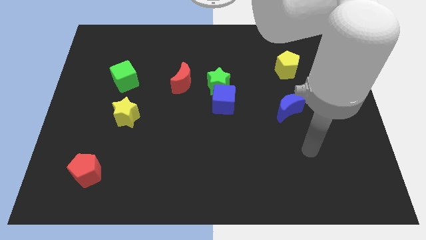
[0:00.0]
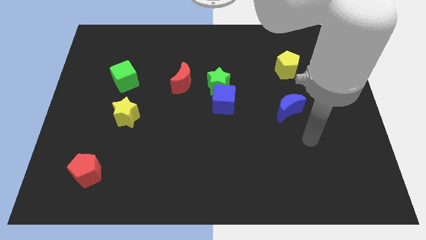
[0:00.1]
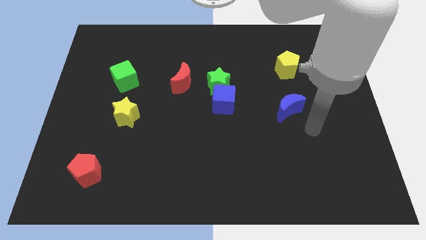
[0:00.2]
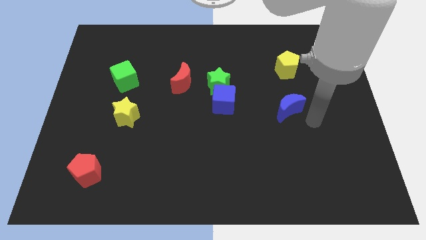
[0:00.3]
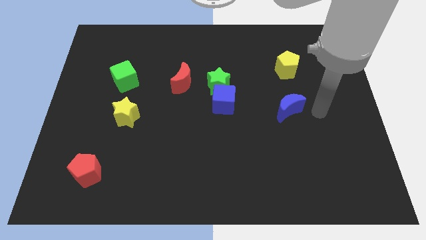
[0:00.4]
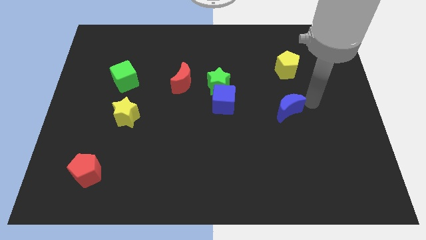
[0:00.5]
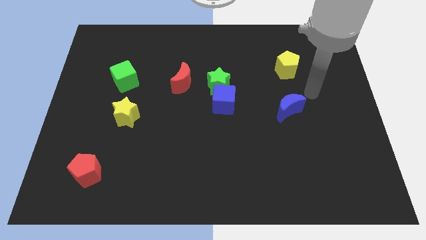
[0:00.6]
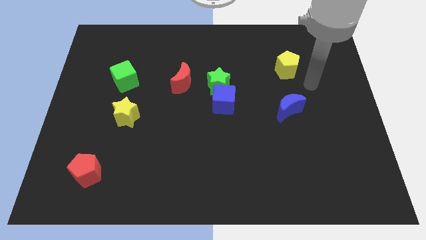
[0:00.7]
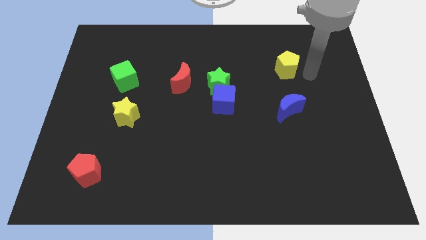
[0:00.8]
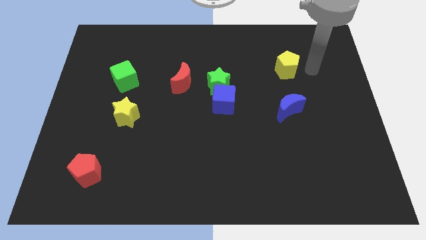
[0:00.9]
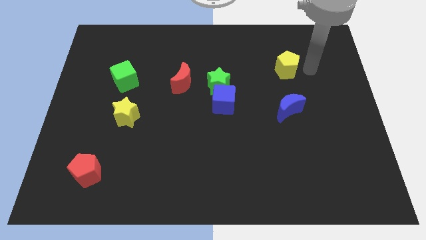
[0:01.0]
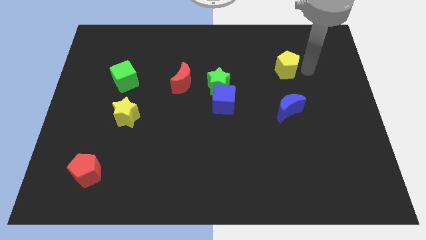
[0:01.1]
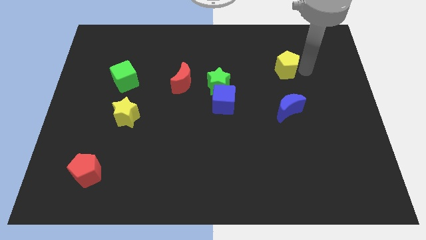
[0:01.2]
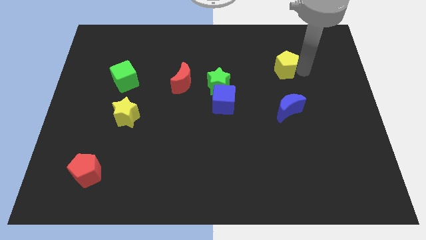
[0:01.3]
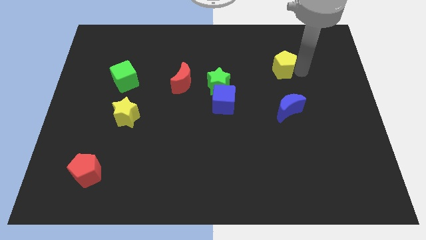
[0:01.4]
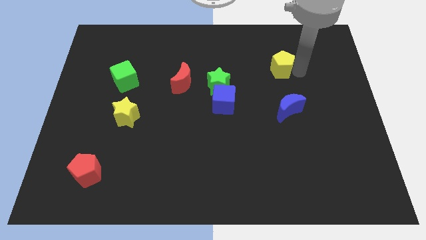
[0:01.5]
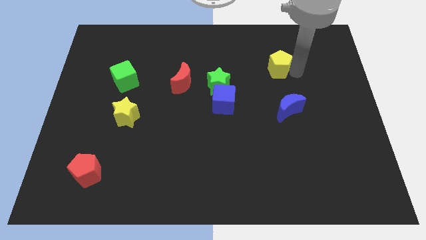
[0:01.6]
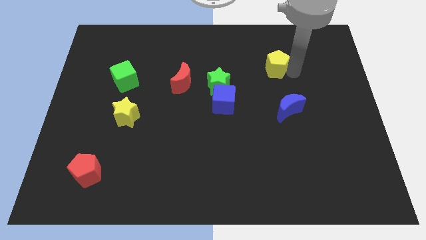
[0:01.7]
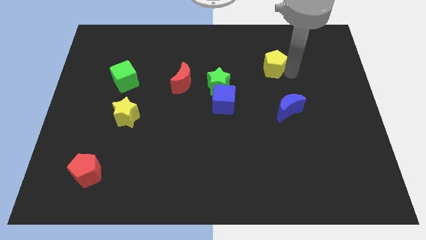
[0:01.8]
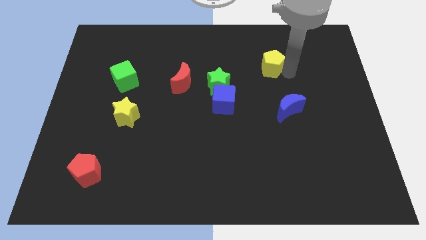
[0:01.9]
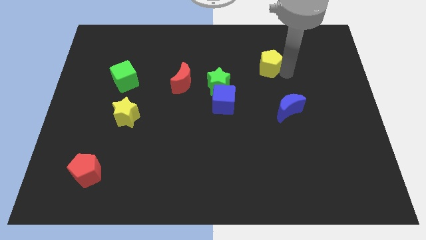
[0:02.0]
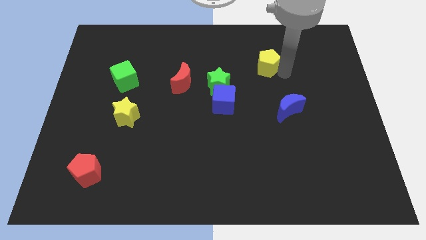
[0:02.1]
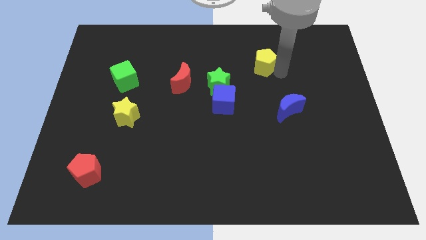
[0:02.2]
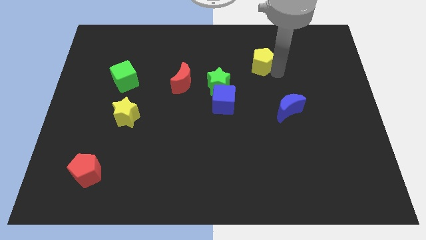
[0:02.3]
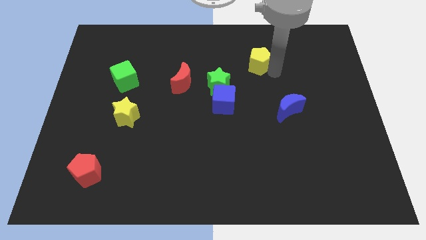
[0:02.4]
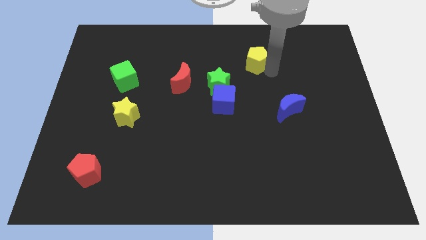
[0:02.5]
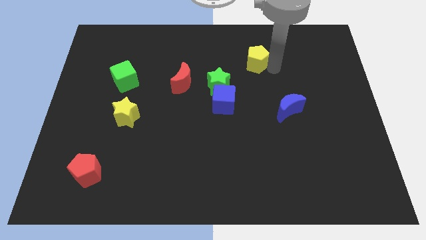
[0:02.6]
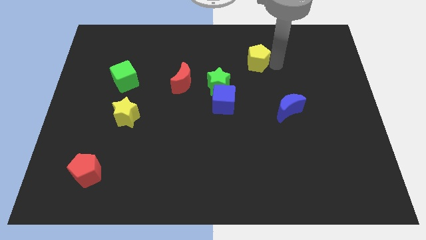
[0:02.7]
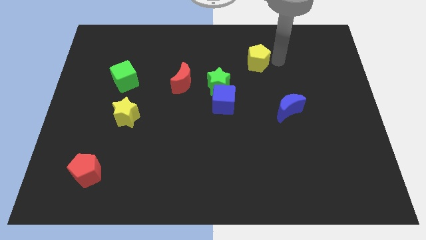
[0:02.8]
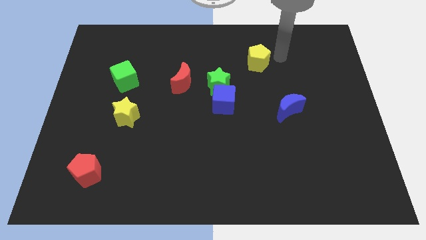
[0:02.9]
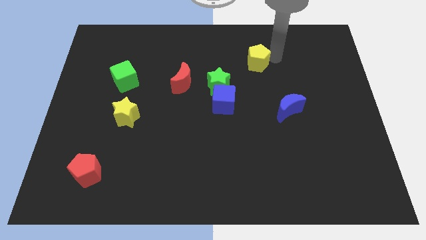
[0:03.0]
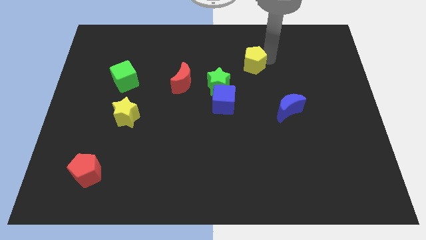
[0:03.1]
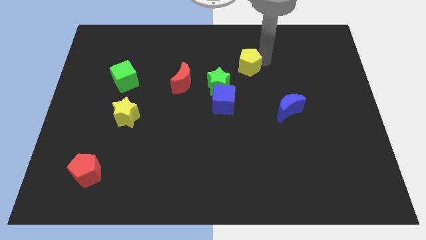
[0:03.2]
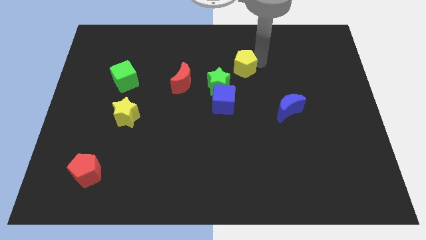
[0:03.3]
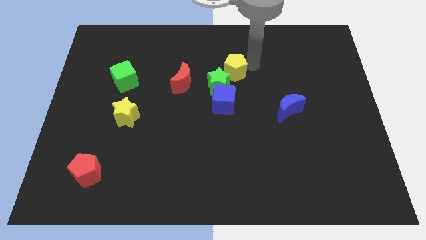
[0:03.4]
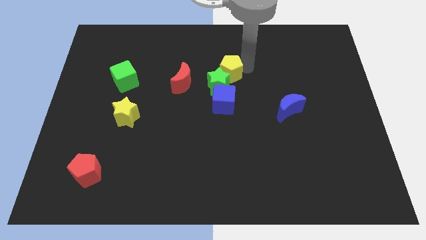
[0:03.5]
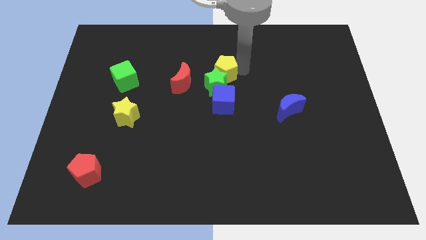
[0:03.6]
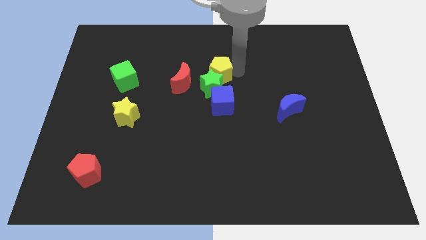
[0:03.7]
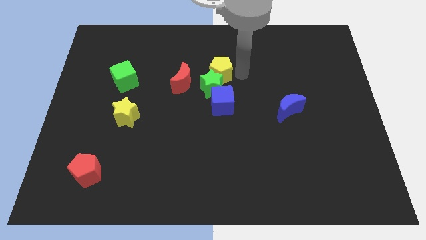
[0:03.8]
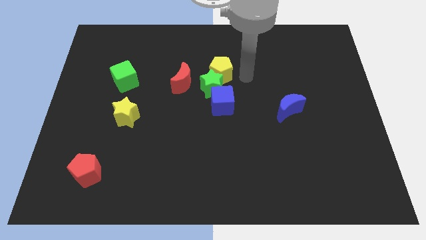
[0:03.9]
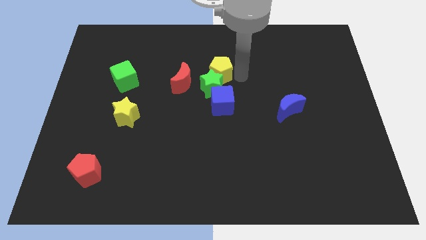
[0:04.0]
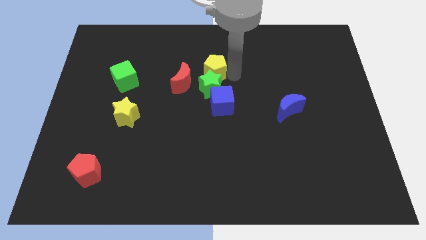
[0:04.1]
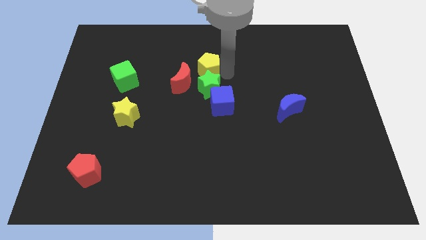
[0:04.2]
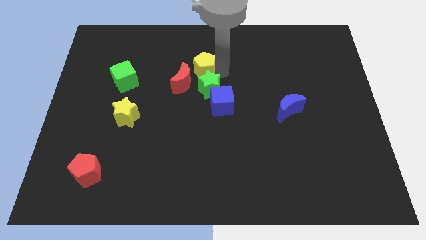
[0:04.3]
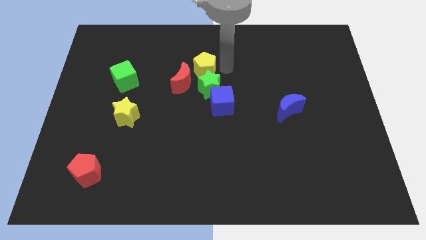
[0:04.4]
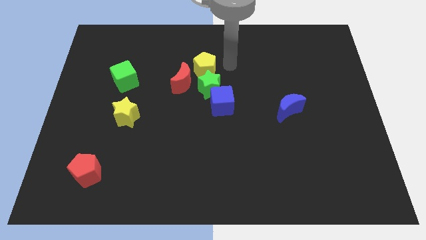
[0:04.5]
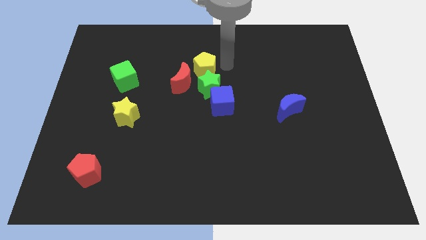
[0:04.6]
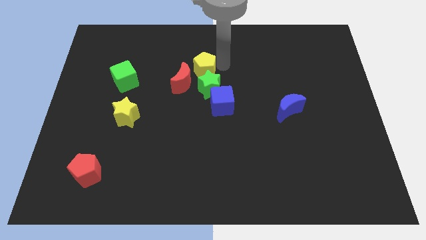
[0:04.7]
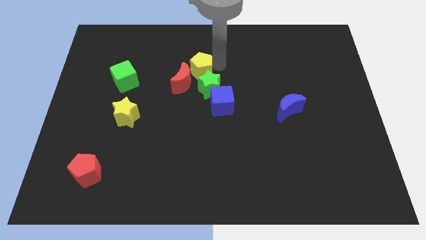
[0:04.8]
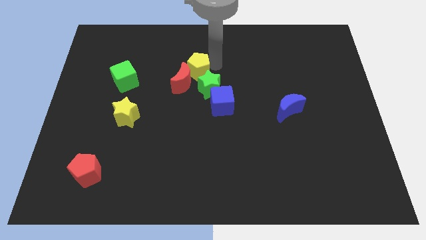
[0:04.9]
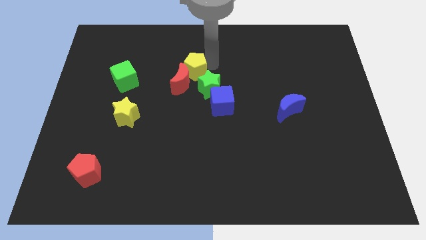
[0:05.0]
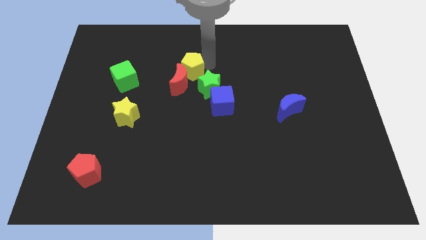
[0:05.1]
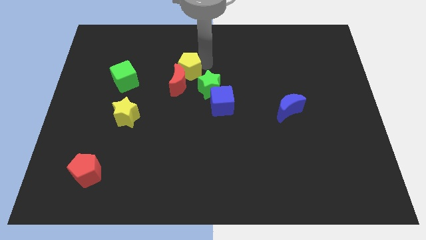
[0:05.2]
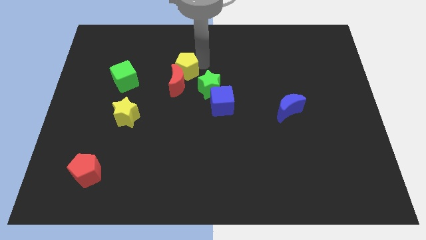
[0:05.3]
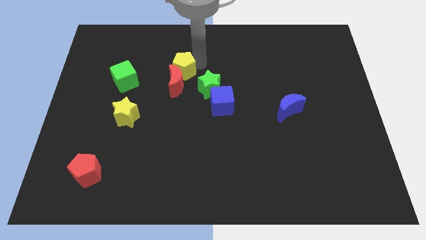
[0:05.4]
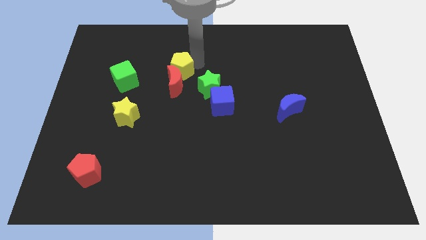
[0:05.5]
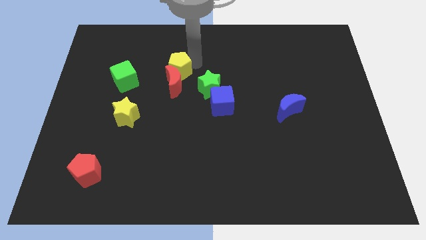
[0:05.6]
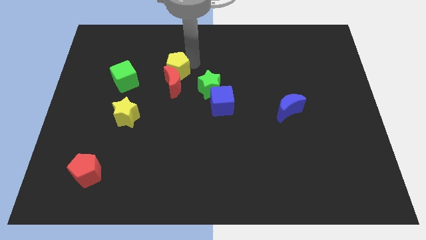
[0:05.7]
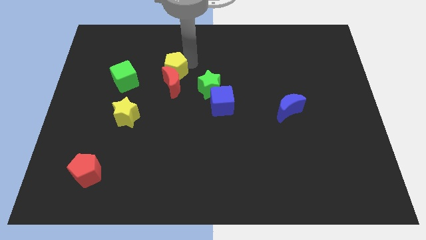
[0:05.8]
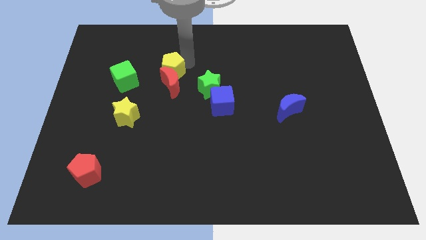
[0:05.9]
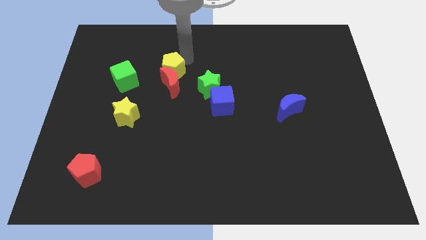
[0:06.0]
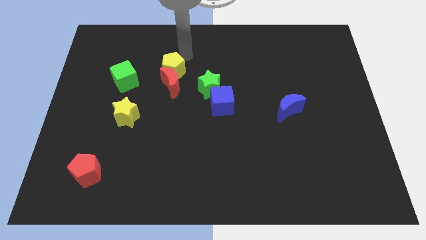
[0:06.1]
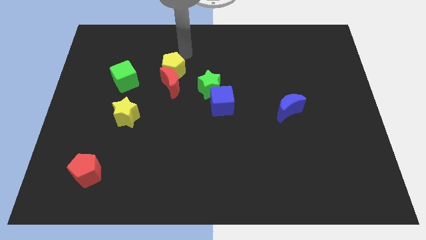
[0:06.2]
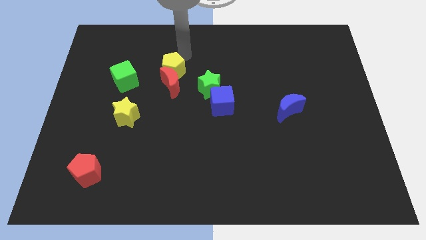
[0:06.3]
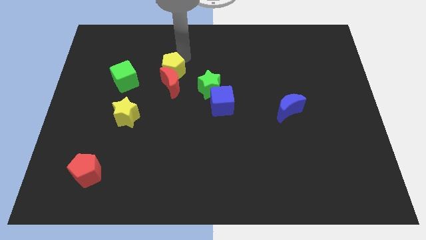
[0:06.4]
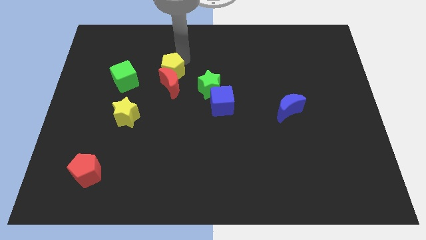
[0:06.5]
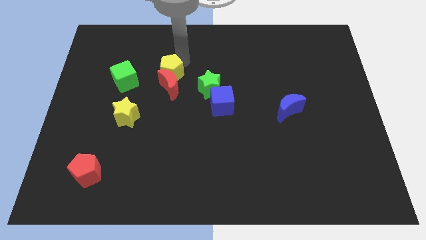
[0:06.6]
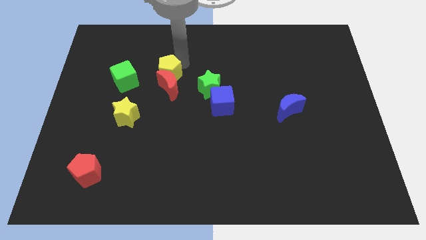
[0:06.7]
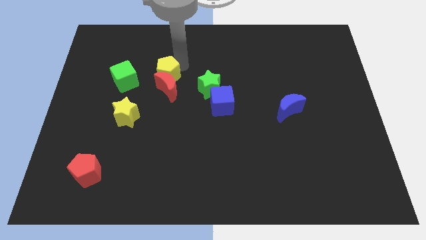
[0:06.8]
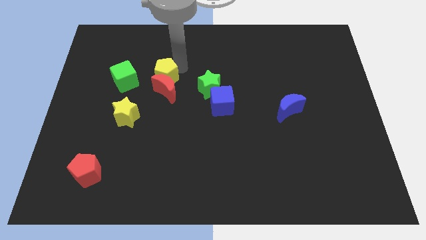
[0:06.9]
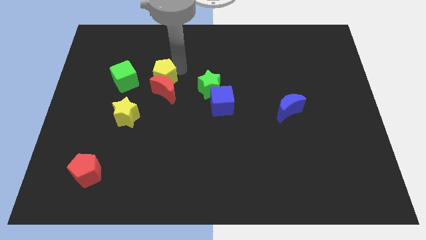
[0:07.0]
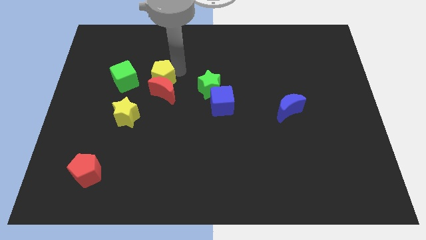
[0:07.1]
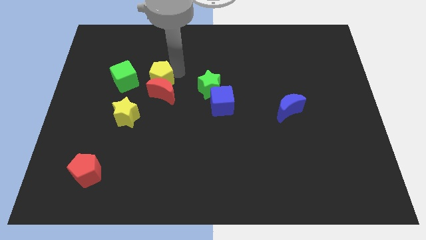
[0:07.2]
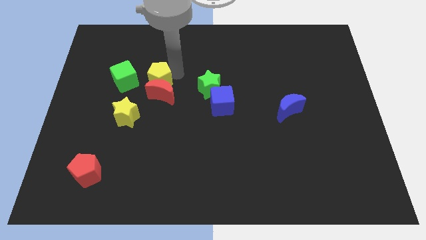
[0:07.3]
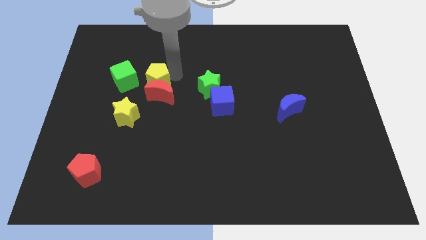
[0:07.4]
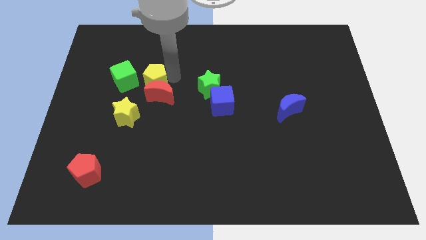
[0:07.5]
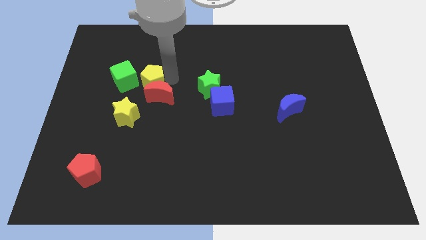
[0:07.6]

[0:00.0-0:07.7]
slide the yellow pentagon diagonally down and to the right of the green cube
